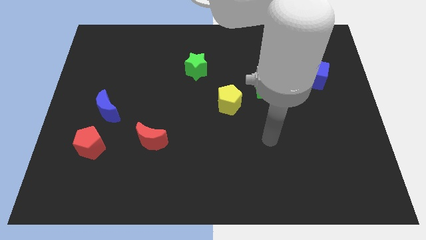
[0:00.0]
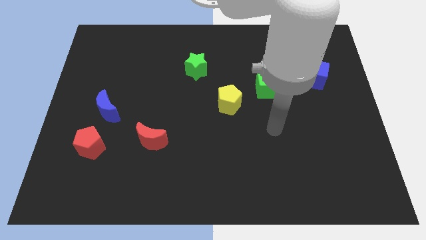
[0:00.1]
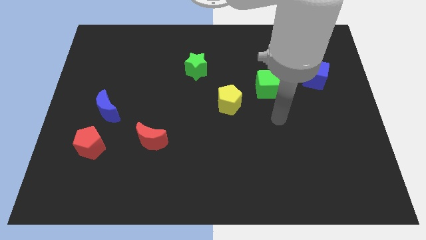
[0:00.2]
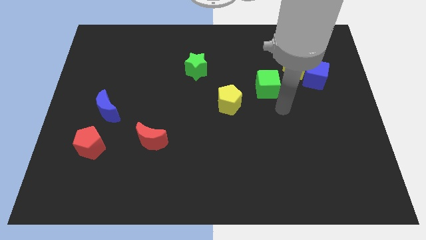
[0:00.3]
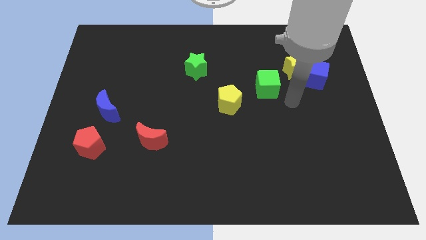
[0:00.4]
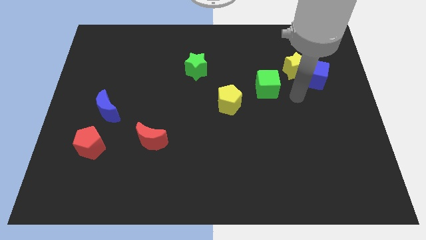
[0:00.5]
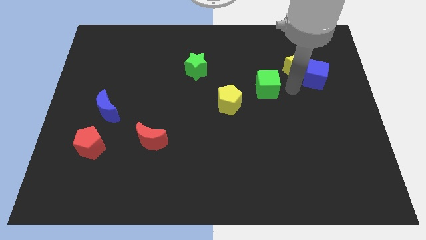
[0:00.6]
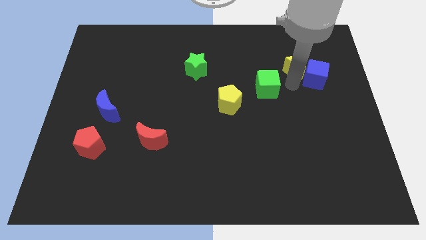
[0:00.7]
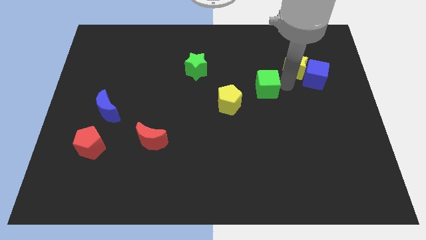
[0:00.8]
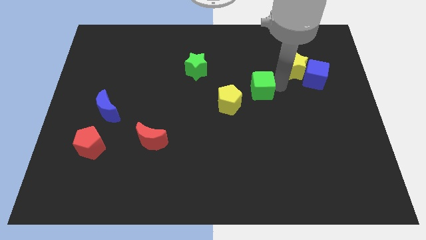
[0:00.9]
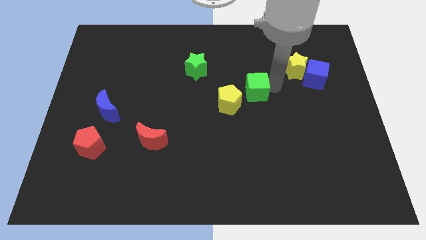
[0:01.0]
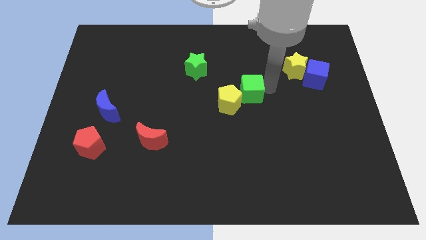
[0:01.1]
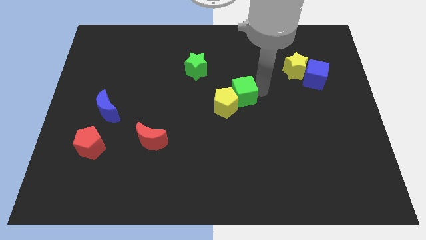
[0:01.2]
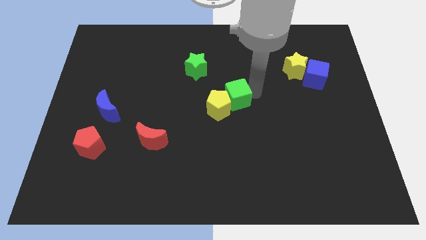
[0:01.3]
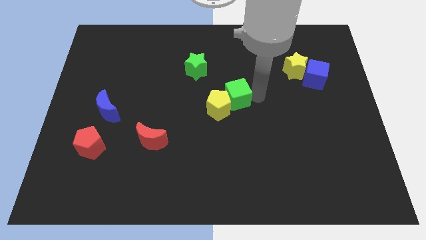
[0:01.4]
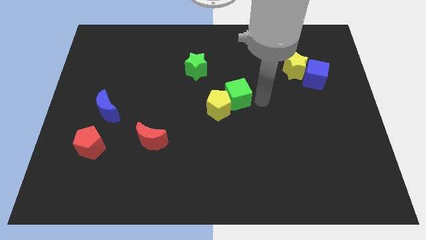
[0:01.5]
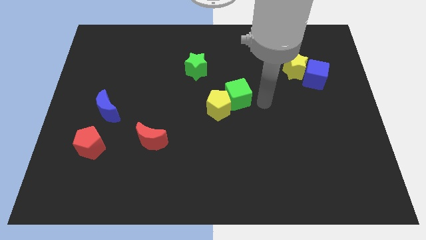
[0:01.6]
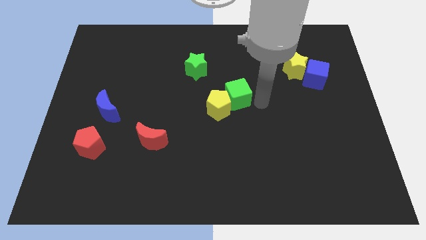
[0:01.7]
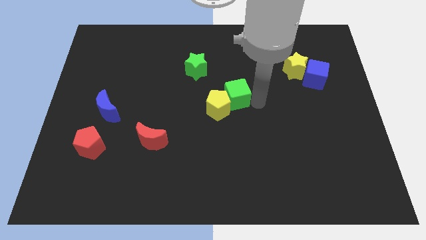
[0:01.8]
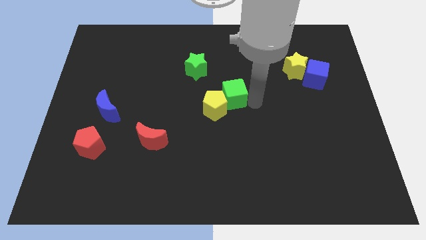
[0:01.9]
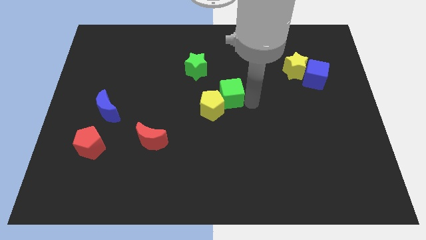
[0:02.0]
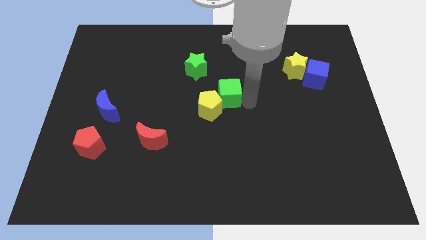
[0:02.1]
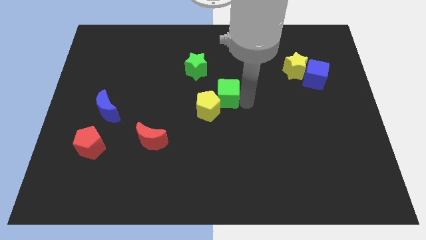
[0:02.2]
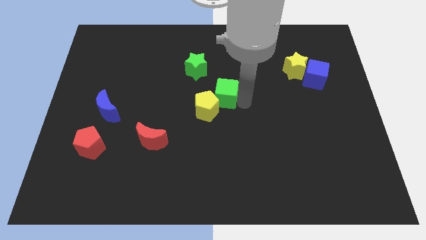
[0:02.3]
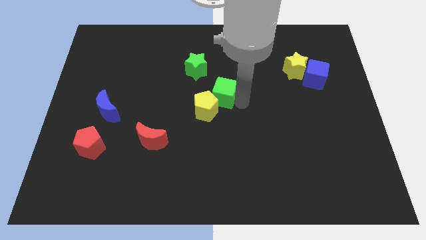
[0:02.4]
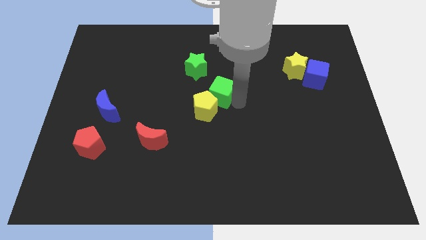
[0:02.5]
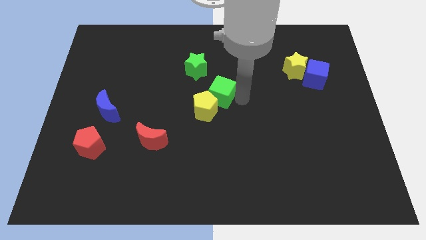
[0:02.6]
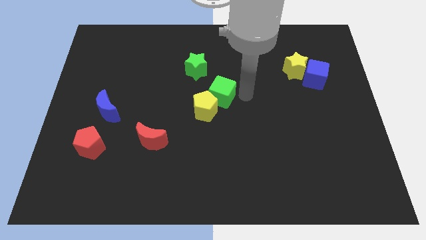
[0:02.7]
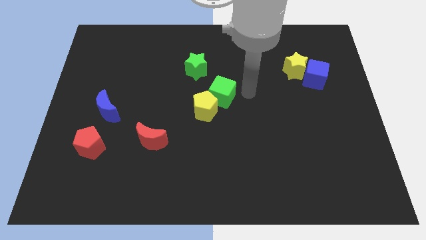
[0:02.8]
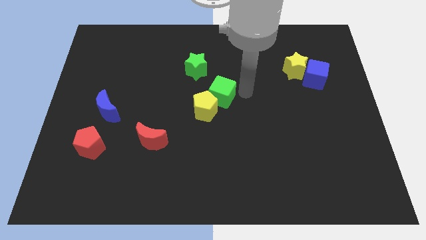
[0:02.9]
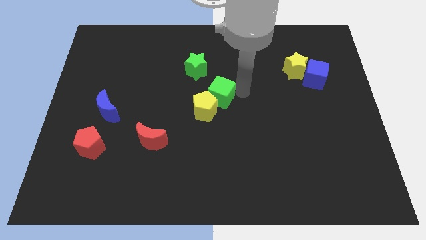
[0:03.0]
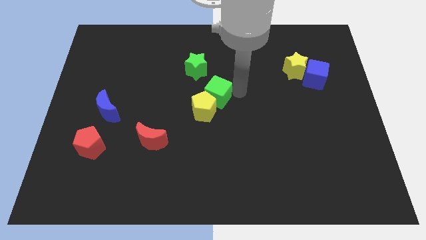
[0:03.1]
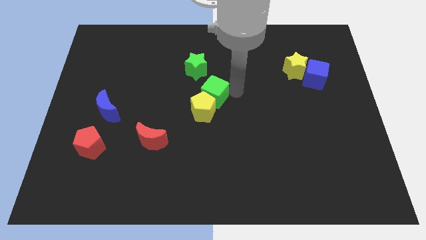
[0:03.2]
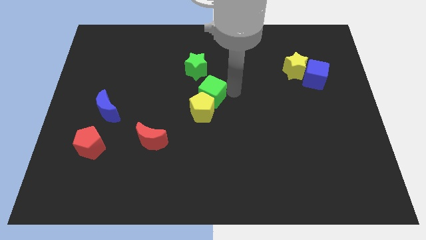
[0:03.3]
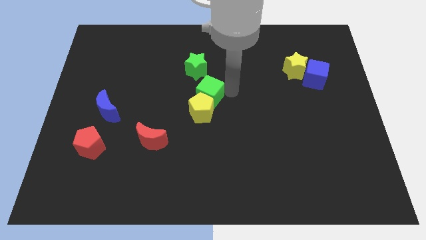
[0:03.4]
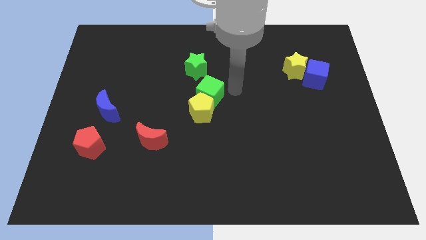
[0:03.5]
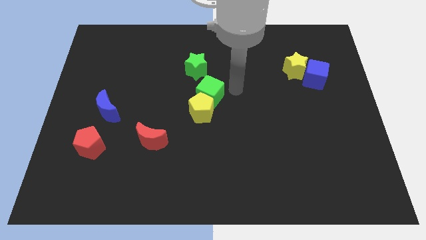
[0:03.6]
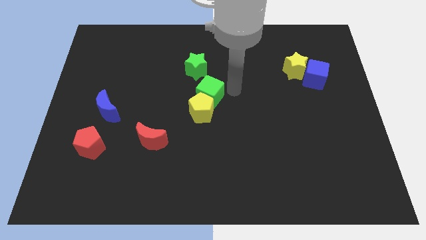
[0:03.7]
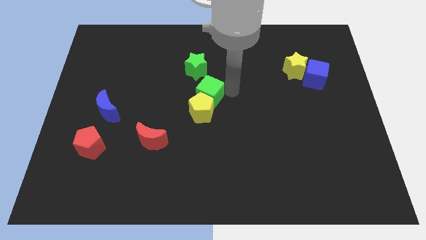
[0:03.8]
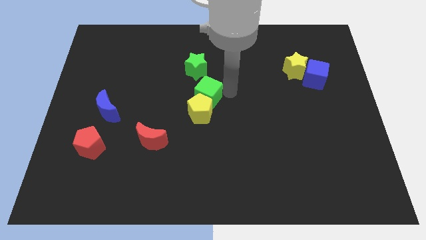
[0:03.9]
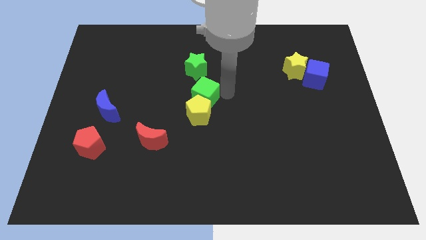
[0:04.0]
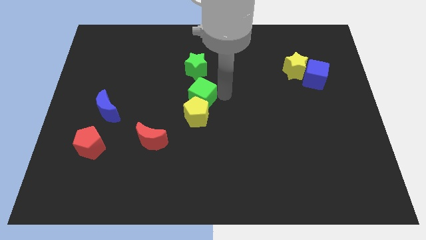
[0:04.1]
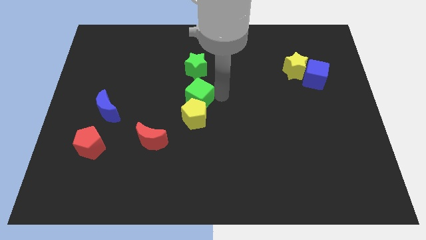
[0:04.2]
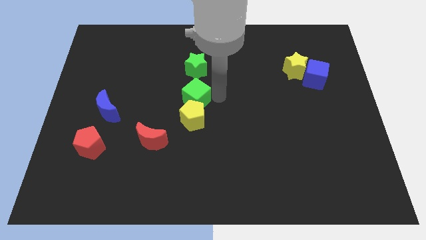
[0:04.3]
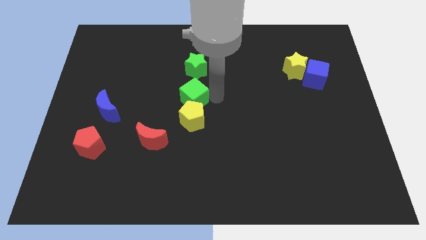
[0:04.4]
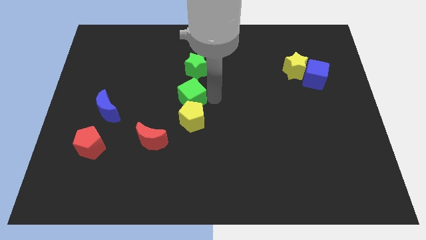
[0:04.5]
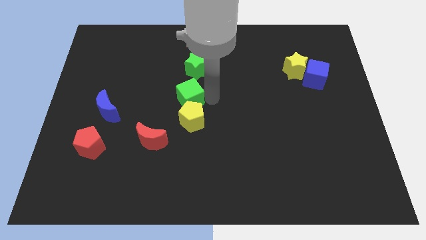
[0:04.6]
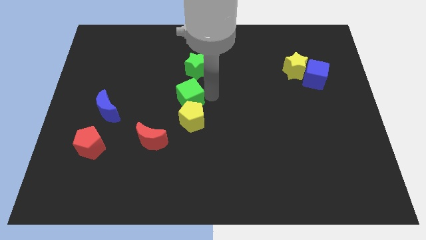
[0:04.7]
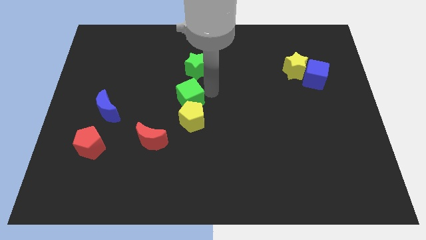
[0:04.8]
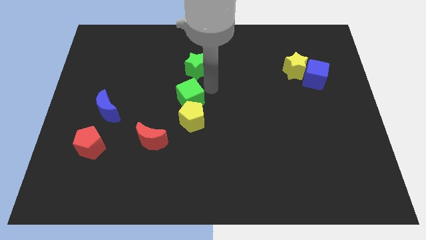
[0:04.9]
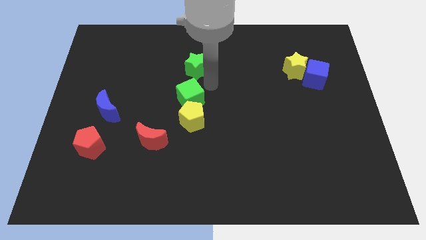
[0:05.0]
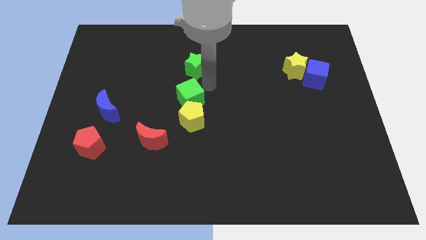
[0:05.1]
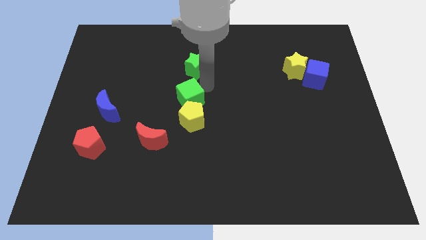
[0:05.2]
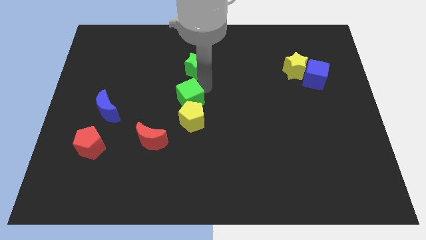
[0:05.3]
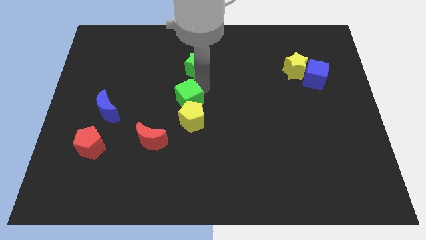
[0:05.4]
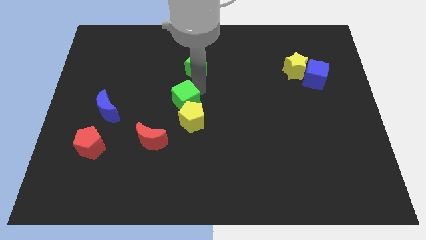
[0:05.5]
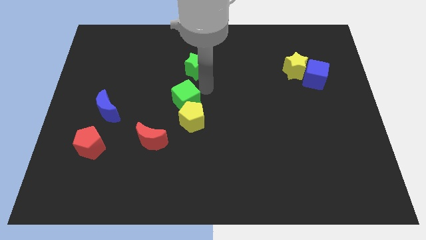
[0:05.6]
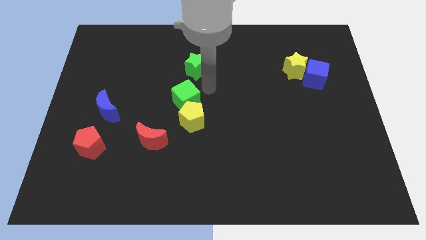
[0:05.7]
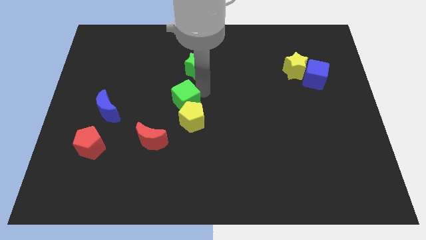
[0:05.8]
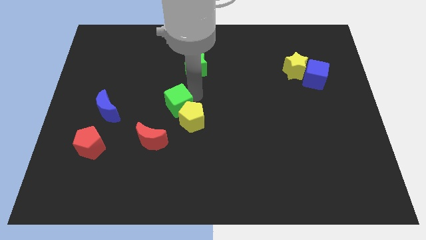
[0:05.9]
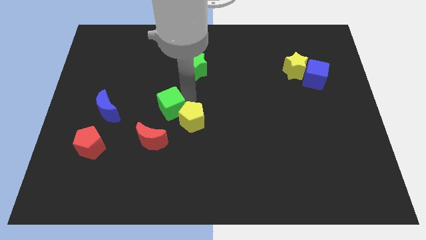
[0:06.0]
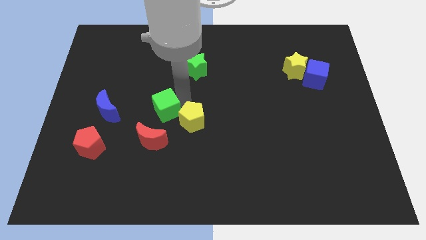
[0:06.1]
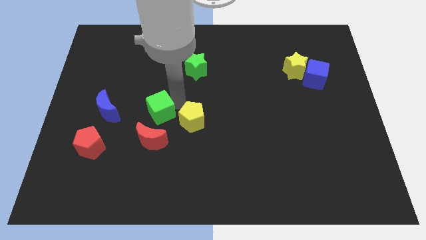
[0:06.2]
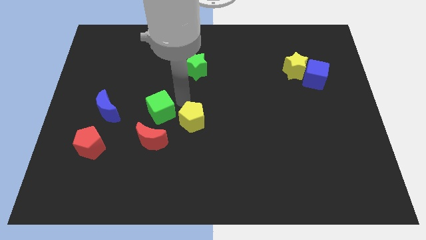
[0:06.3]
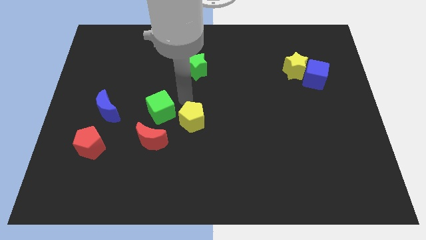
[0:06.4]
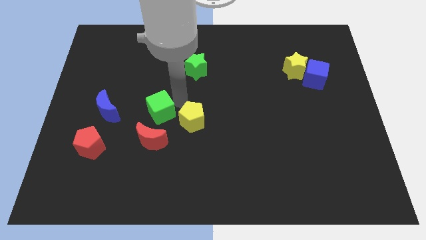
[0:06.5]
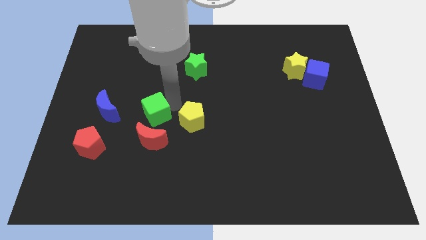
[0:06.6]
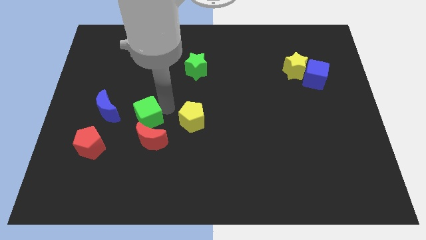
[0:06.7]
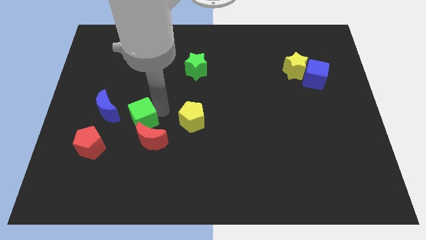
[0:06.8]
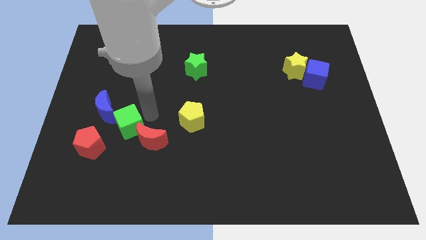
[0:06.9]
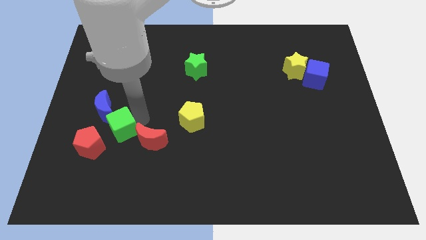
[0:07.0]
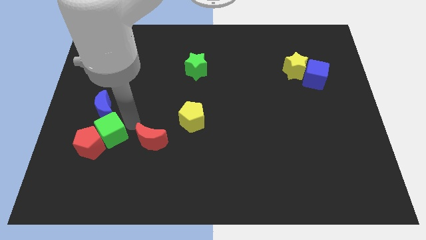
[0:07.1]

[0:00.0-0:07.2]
put the green cube close to the red pentagon
